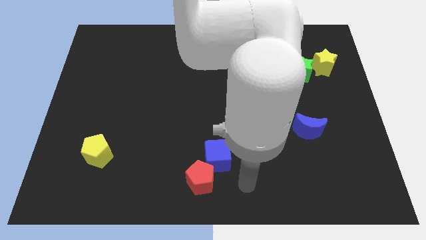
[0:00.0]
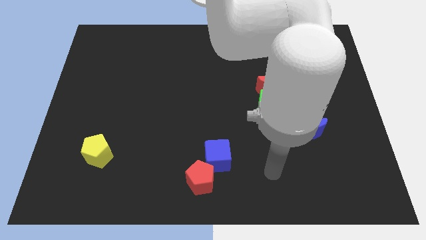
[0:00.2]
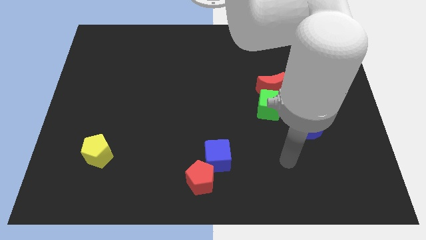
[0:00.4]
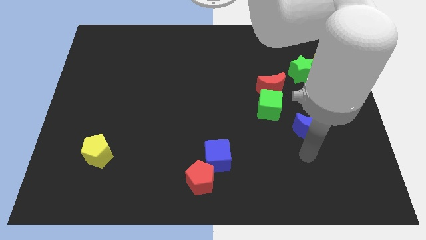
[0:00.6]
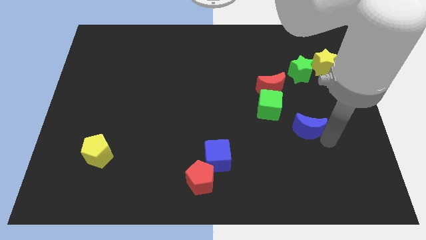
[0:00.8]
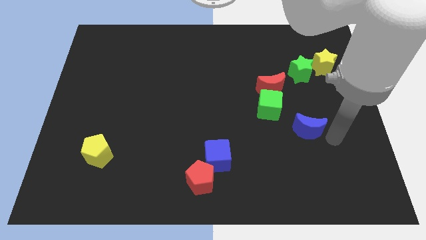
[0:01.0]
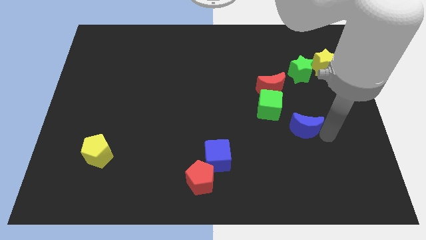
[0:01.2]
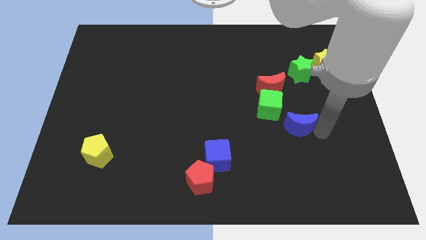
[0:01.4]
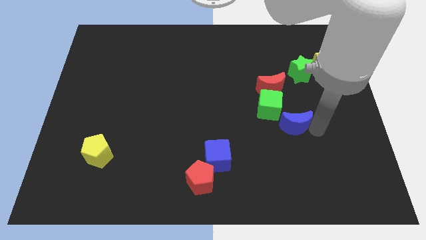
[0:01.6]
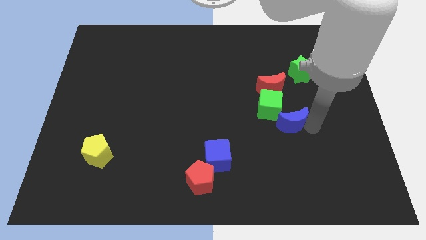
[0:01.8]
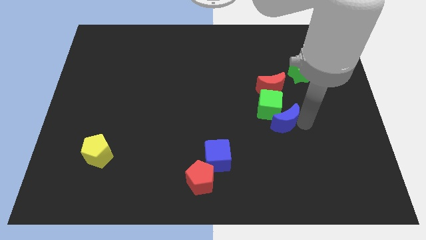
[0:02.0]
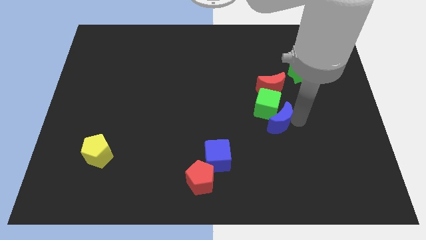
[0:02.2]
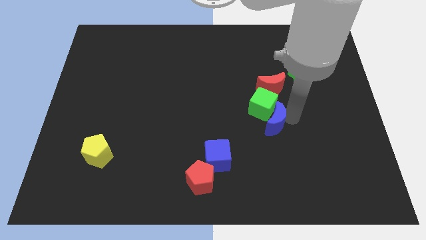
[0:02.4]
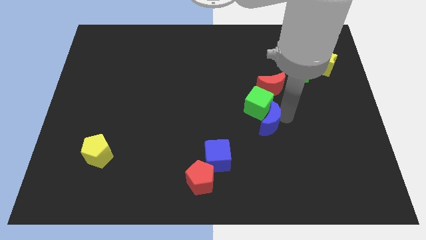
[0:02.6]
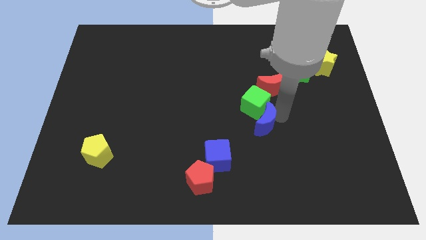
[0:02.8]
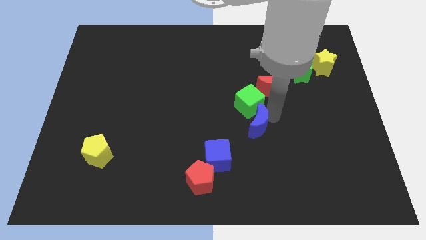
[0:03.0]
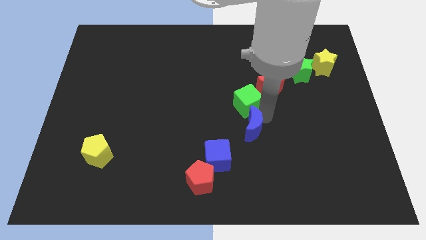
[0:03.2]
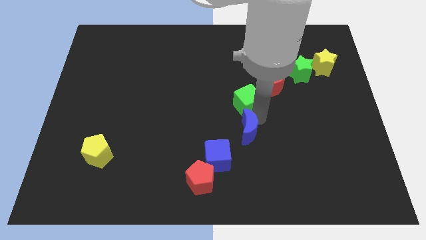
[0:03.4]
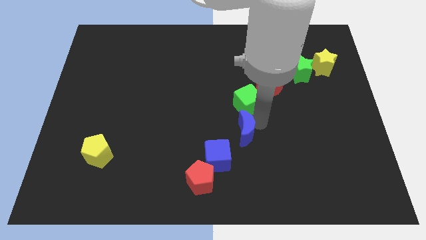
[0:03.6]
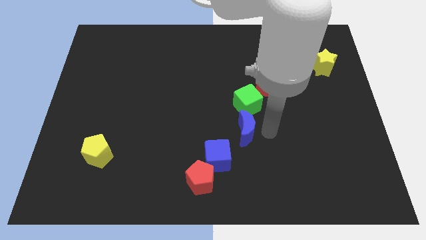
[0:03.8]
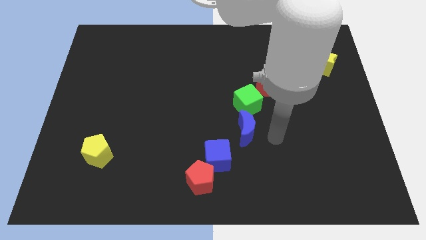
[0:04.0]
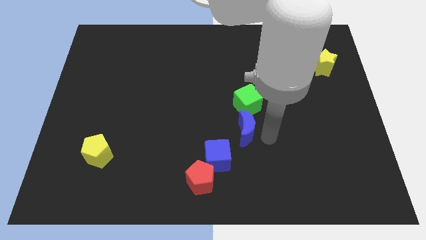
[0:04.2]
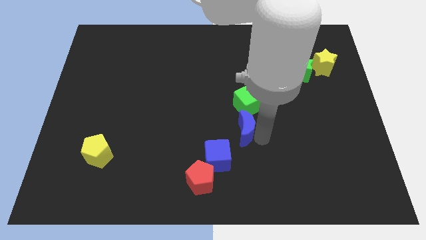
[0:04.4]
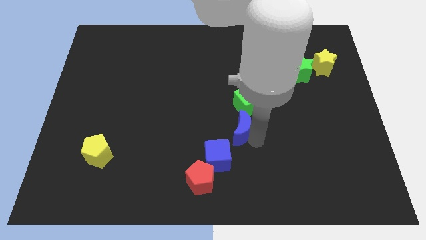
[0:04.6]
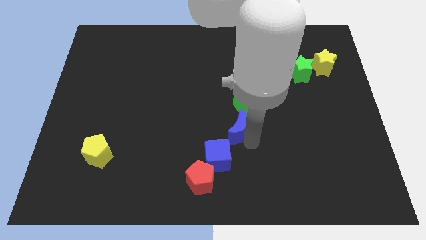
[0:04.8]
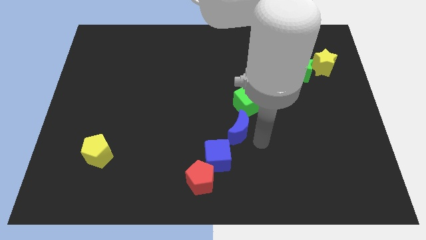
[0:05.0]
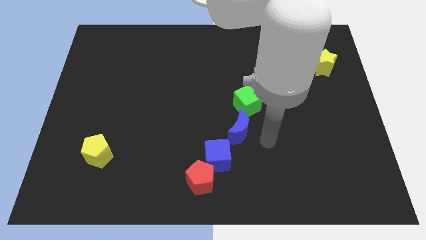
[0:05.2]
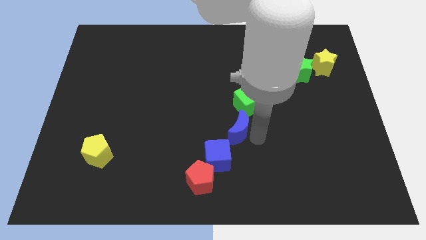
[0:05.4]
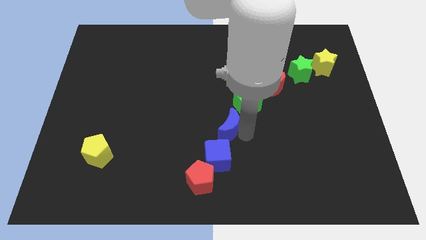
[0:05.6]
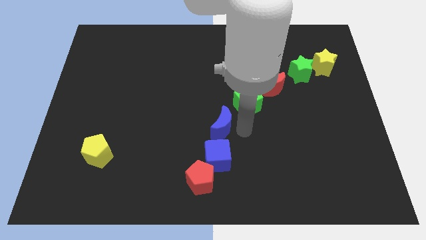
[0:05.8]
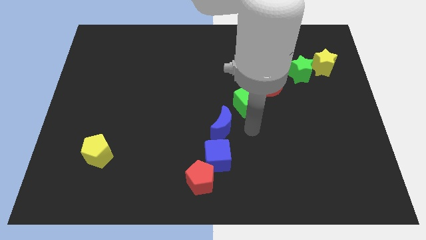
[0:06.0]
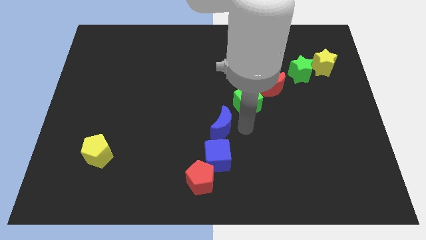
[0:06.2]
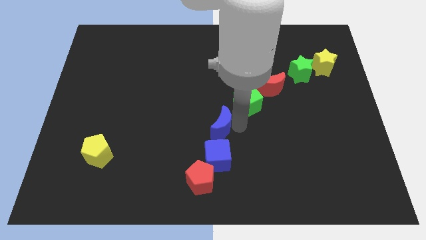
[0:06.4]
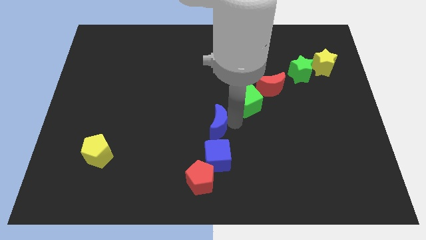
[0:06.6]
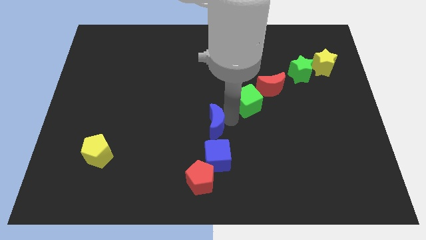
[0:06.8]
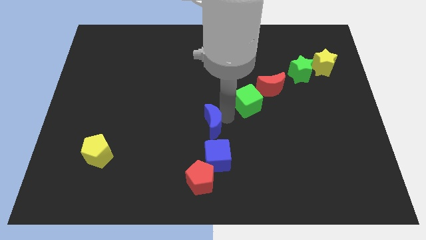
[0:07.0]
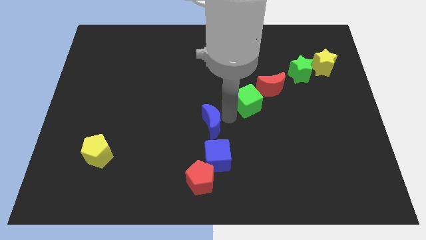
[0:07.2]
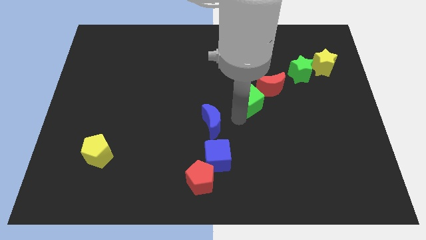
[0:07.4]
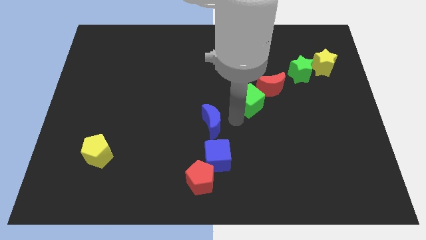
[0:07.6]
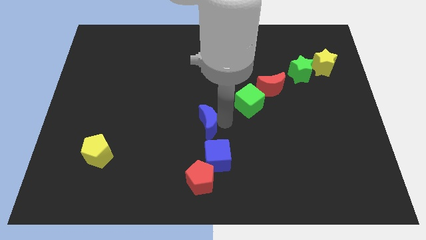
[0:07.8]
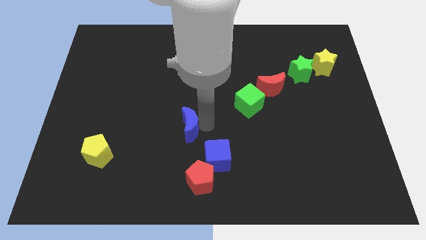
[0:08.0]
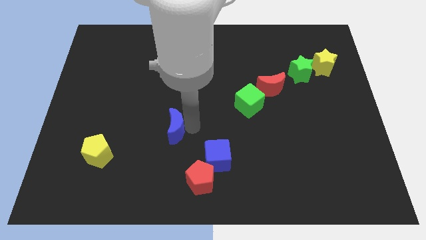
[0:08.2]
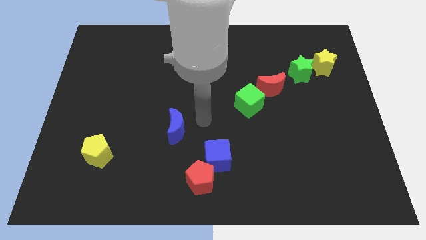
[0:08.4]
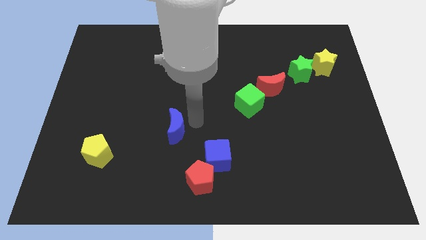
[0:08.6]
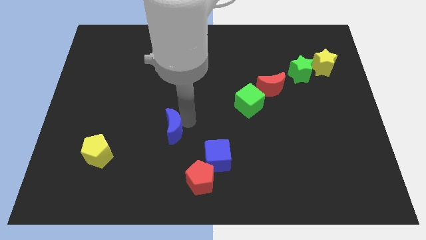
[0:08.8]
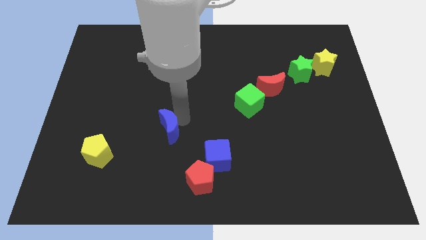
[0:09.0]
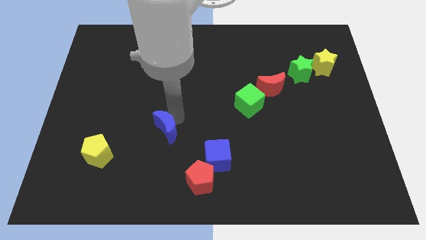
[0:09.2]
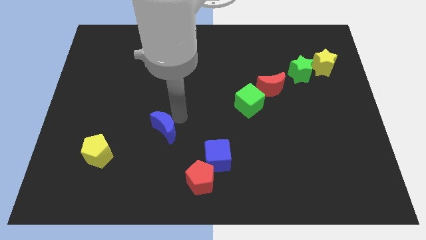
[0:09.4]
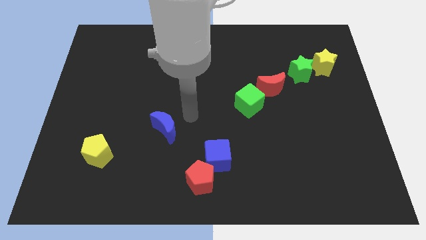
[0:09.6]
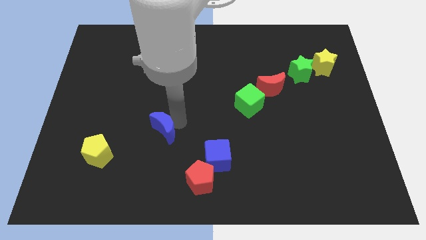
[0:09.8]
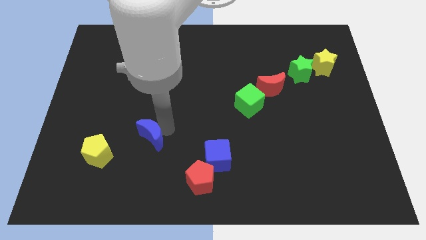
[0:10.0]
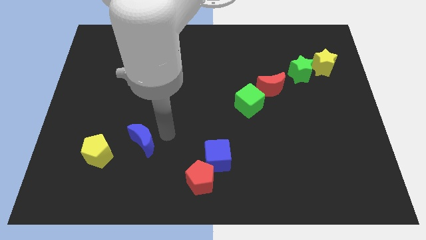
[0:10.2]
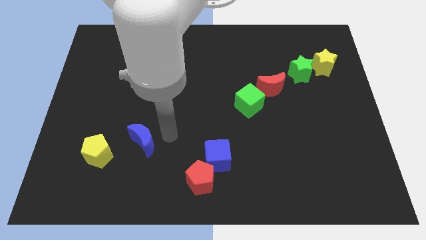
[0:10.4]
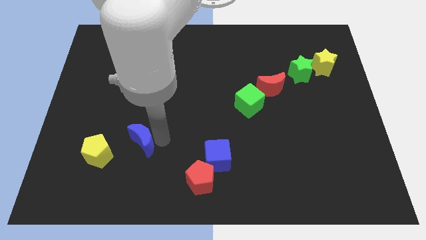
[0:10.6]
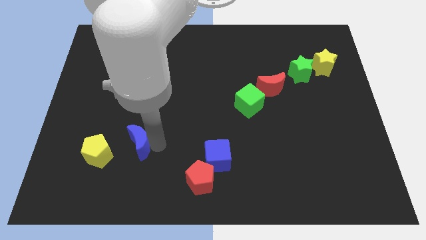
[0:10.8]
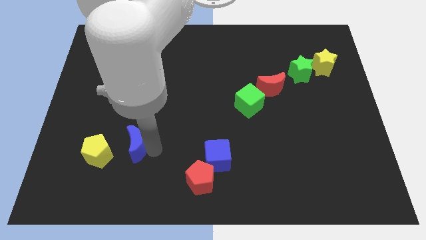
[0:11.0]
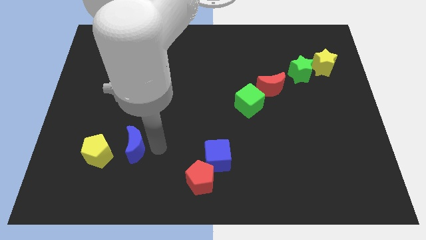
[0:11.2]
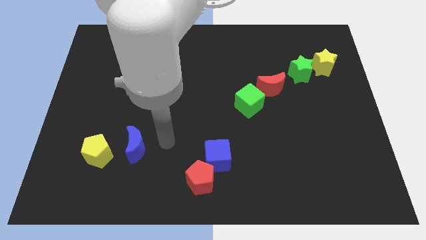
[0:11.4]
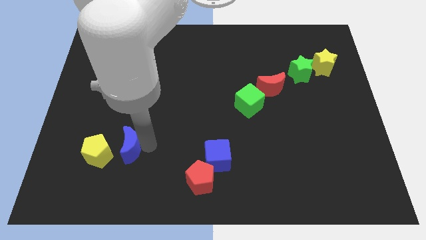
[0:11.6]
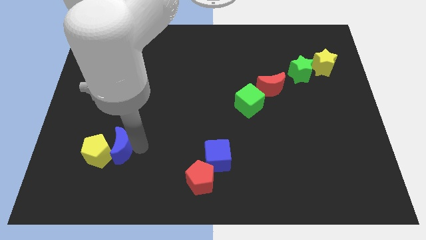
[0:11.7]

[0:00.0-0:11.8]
put the blue moon towards the yellow pentagon

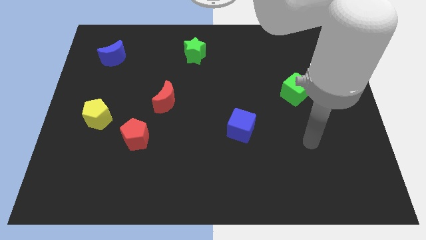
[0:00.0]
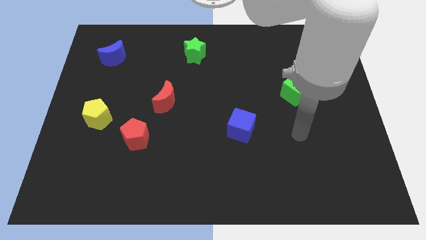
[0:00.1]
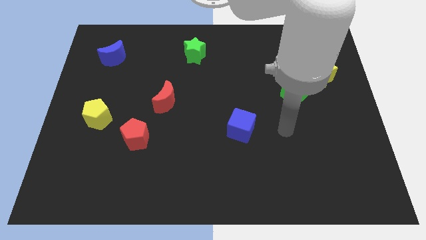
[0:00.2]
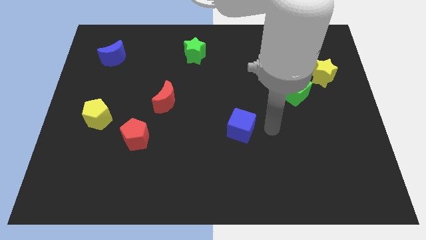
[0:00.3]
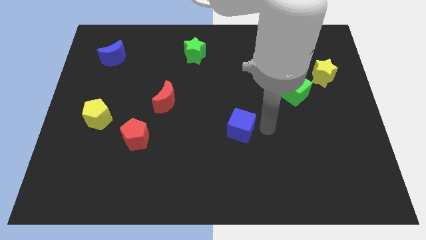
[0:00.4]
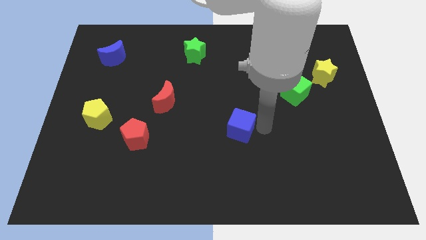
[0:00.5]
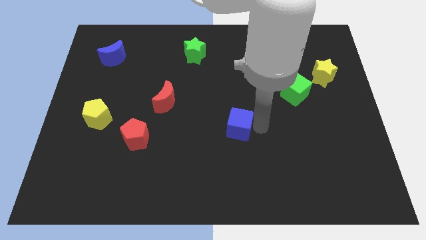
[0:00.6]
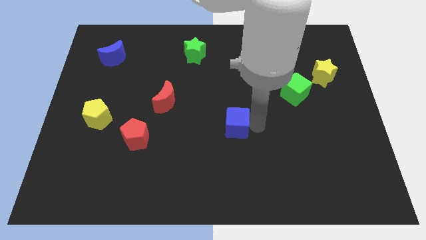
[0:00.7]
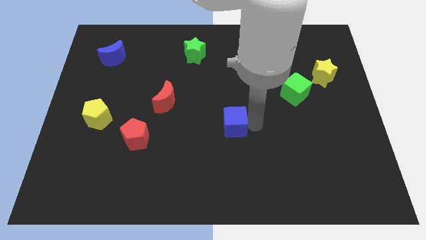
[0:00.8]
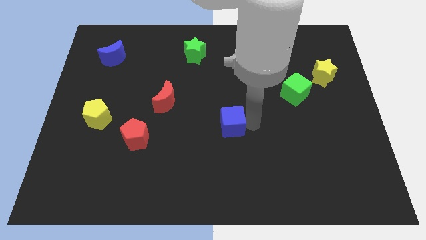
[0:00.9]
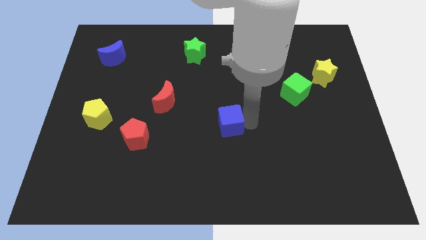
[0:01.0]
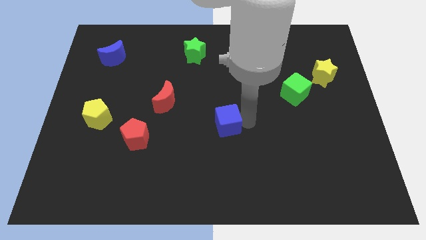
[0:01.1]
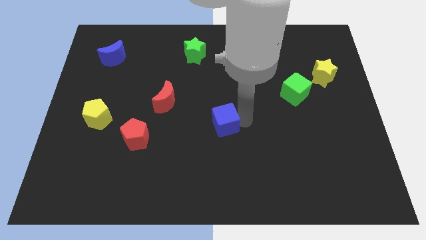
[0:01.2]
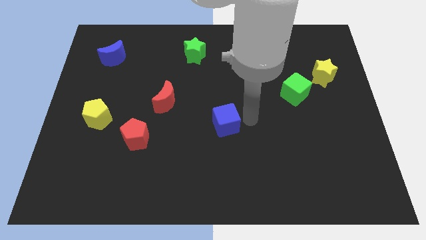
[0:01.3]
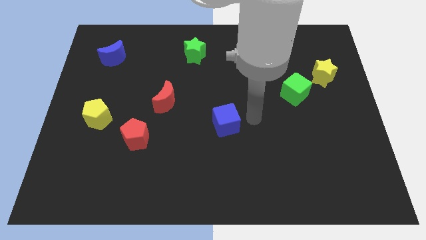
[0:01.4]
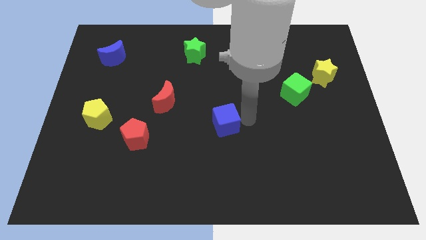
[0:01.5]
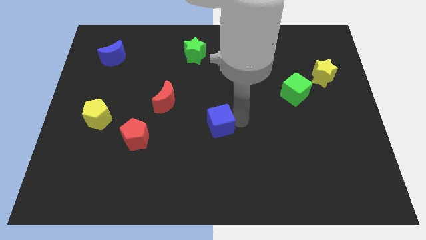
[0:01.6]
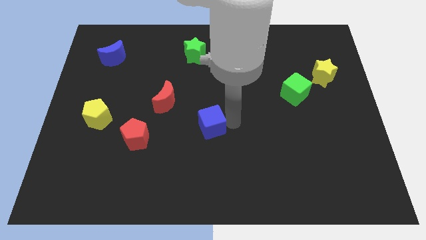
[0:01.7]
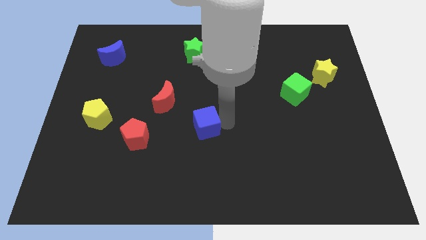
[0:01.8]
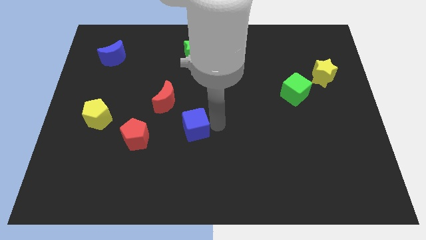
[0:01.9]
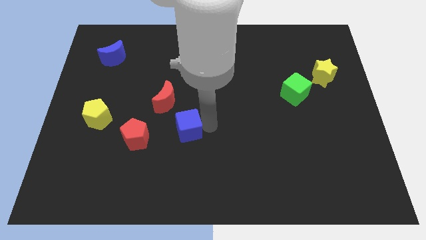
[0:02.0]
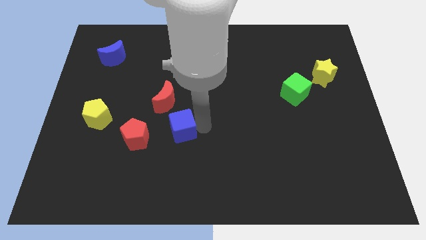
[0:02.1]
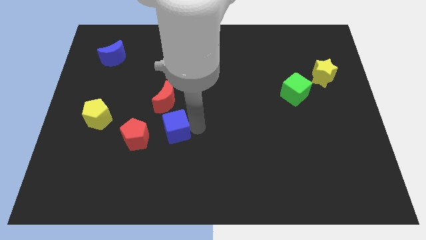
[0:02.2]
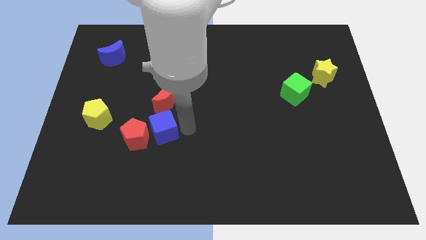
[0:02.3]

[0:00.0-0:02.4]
move the blue cube towards the red pentagon
